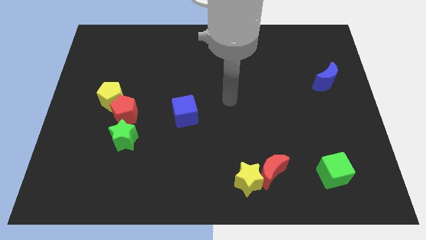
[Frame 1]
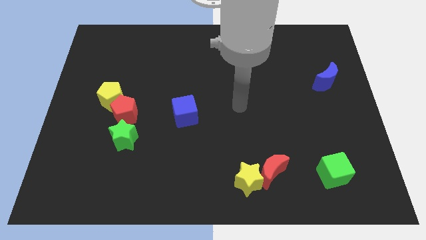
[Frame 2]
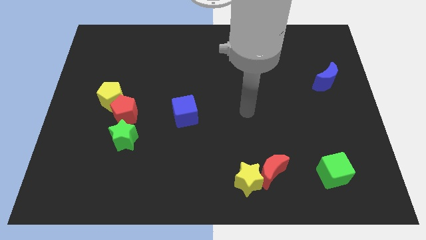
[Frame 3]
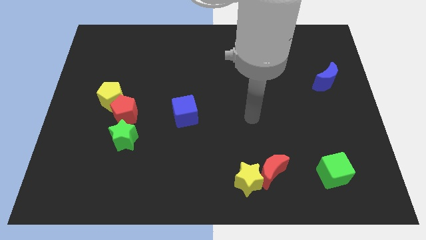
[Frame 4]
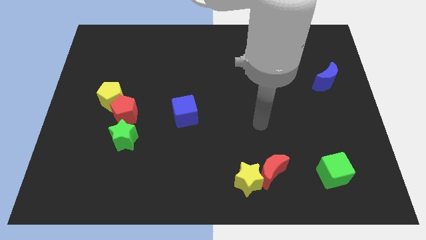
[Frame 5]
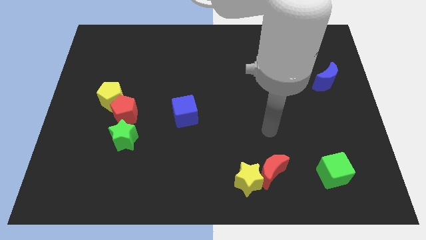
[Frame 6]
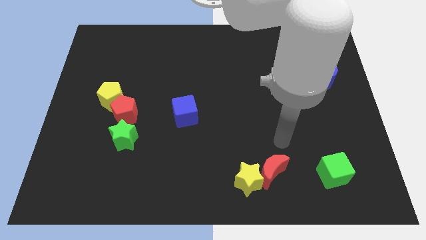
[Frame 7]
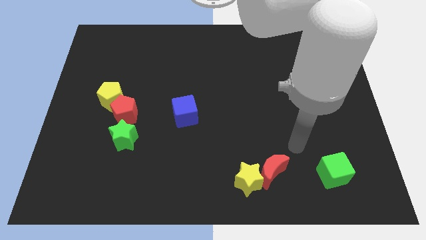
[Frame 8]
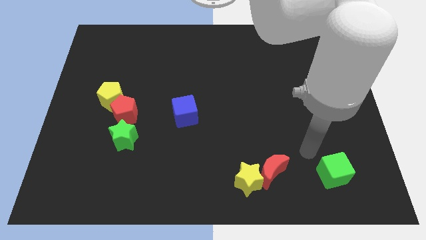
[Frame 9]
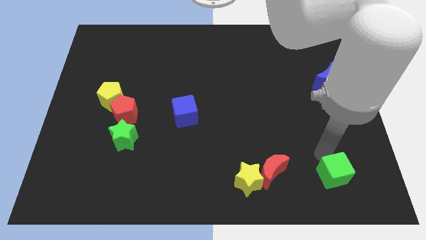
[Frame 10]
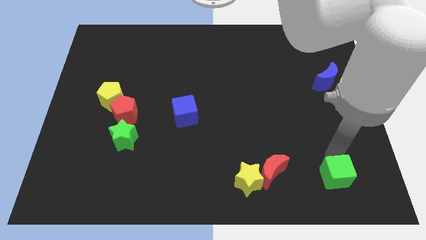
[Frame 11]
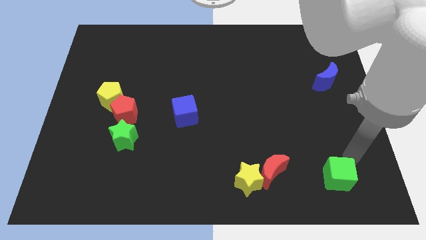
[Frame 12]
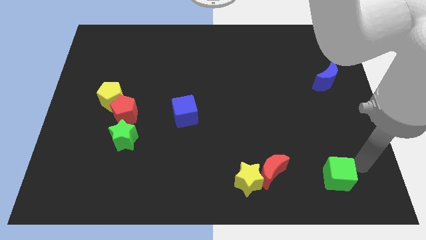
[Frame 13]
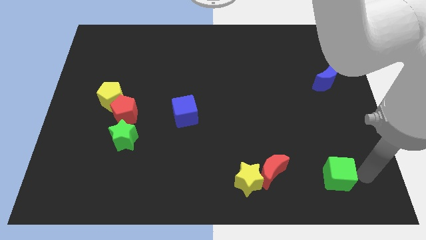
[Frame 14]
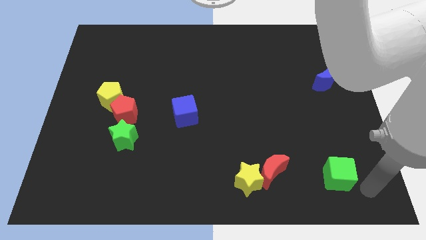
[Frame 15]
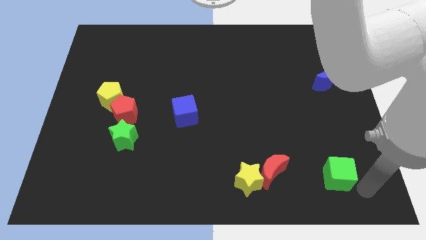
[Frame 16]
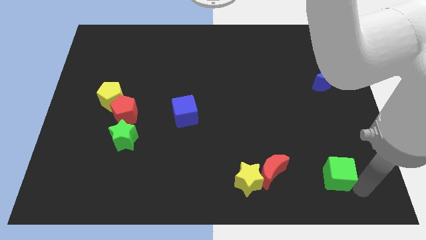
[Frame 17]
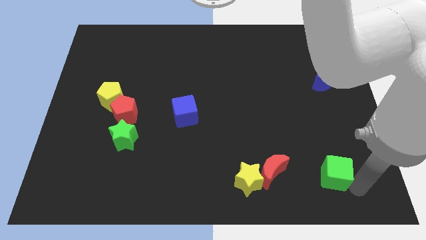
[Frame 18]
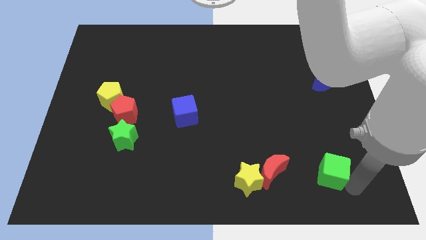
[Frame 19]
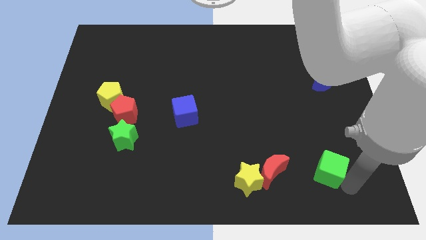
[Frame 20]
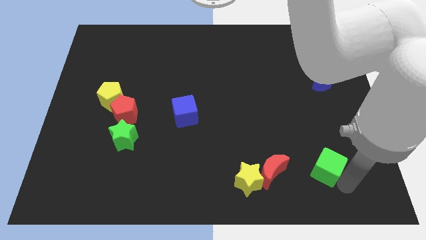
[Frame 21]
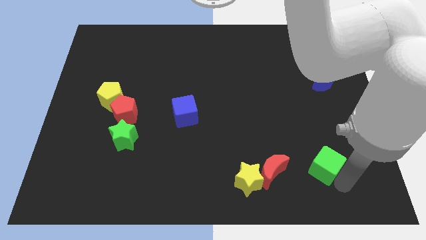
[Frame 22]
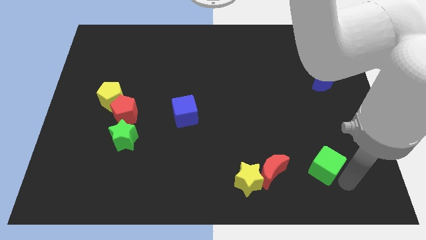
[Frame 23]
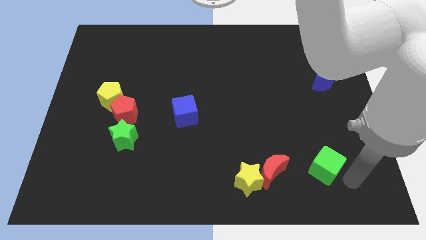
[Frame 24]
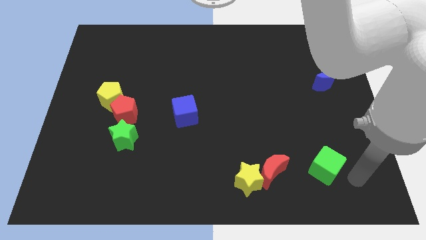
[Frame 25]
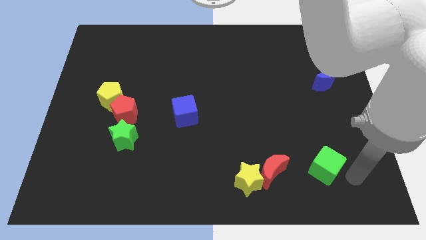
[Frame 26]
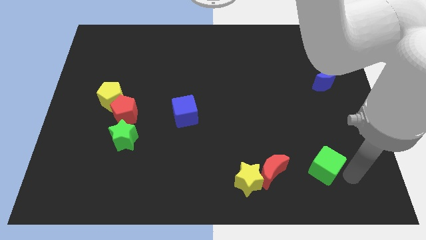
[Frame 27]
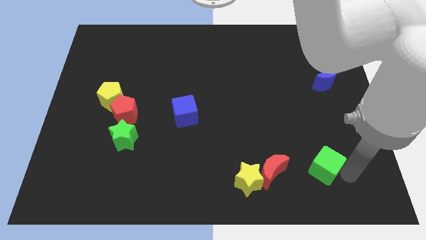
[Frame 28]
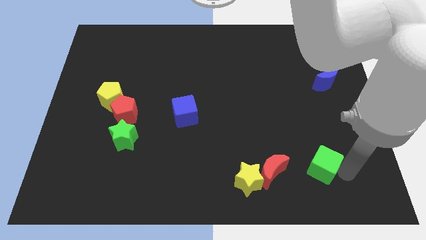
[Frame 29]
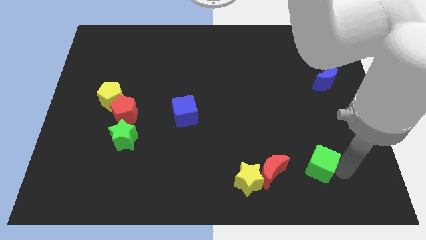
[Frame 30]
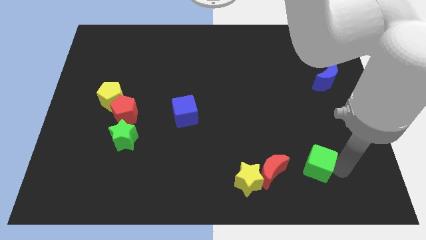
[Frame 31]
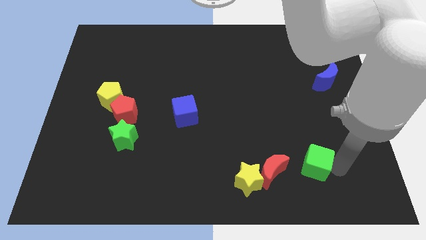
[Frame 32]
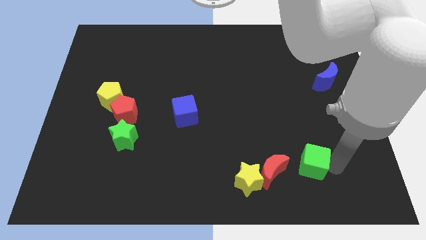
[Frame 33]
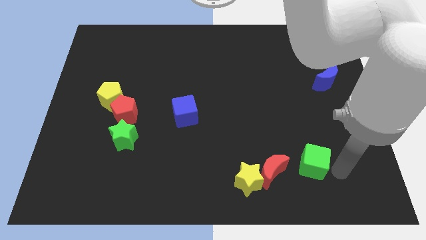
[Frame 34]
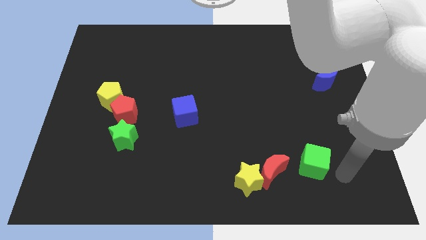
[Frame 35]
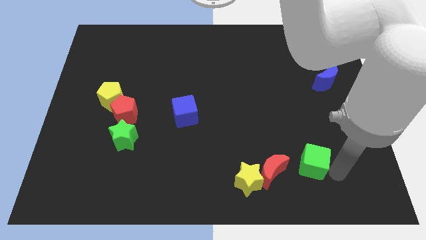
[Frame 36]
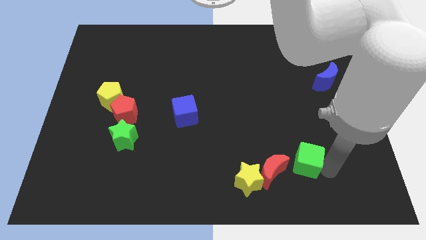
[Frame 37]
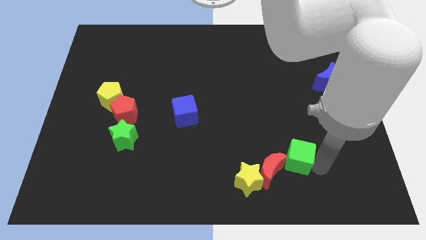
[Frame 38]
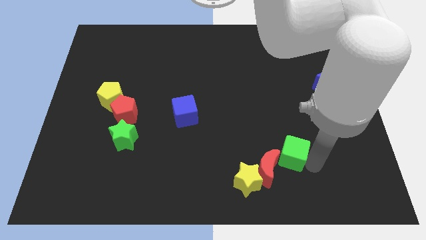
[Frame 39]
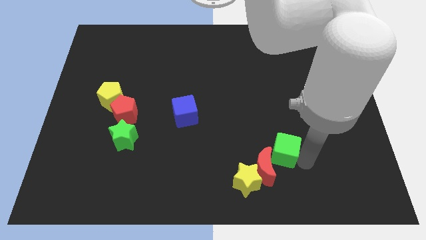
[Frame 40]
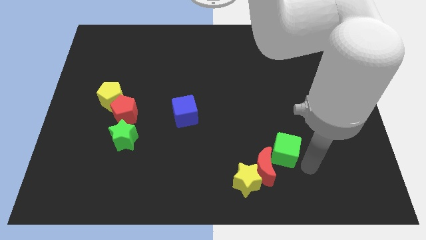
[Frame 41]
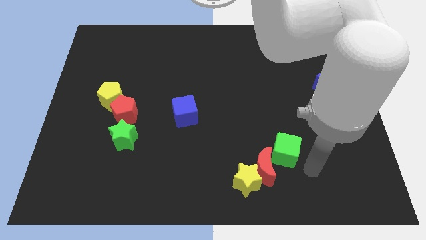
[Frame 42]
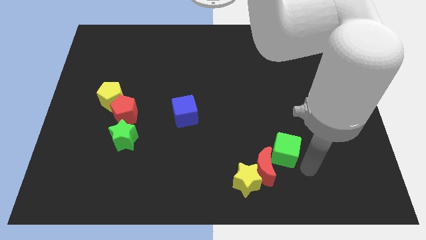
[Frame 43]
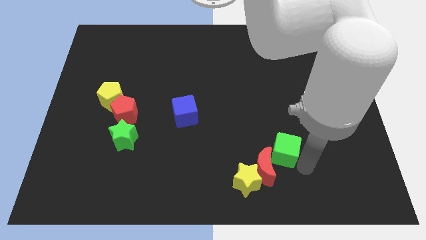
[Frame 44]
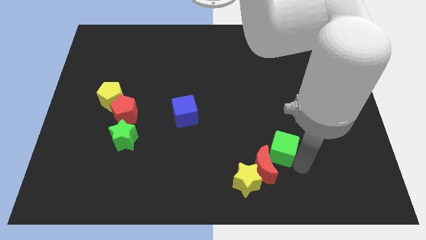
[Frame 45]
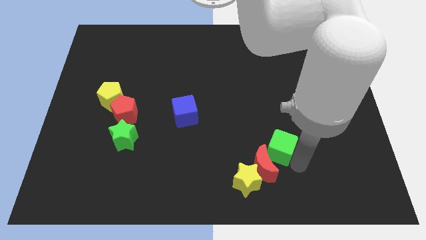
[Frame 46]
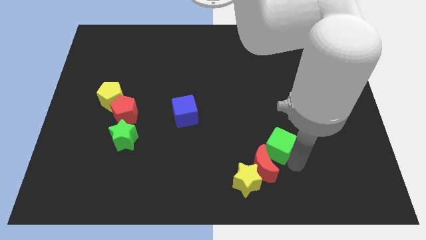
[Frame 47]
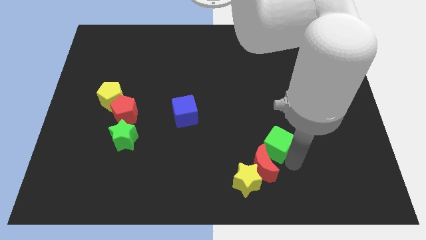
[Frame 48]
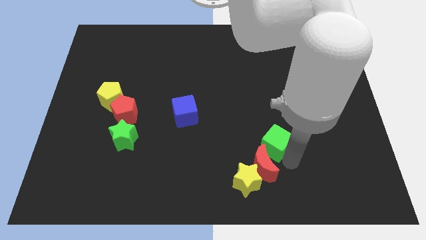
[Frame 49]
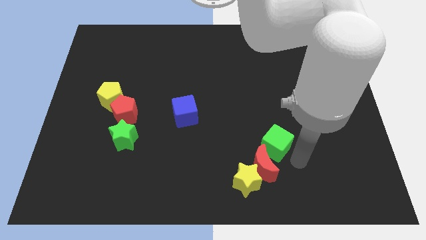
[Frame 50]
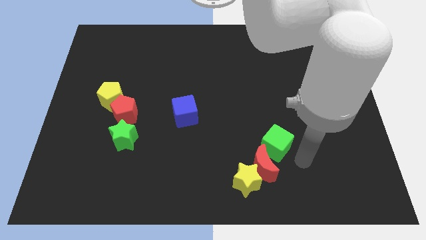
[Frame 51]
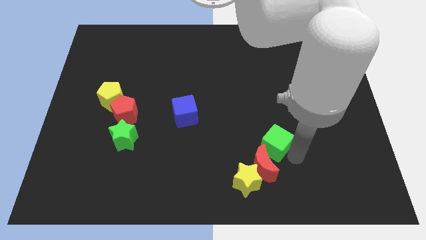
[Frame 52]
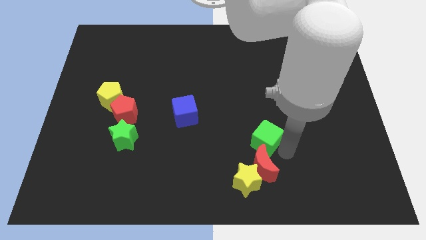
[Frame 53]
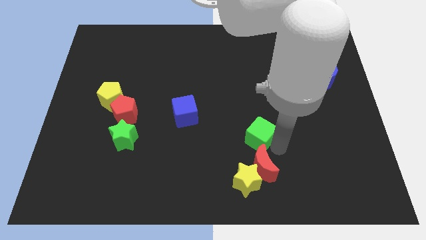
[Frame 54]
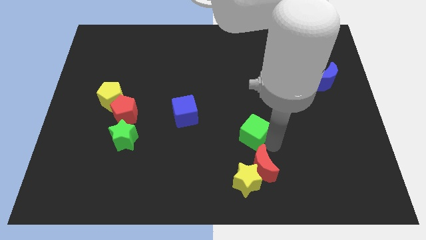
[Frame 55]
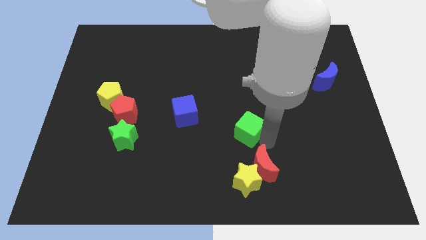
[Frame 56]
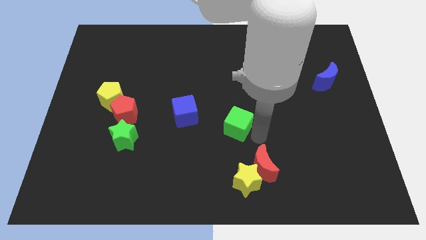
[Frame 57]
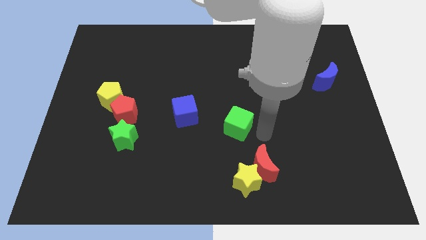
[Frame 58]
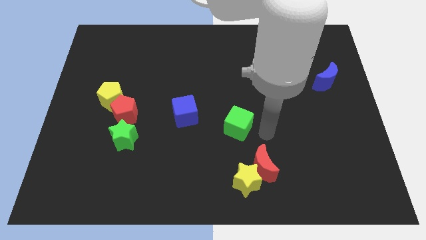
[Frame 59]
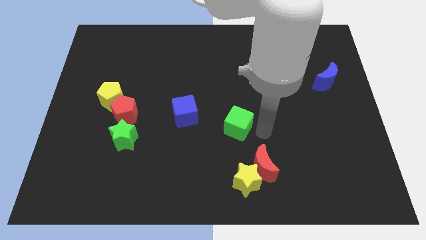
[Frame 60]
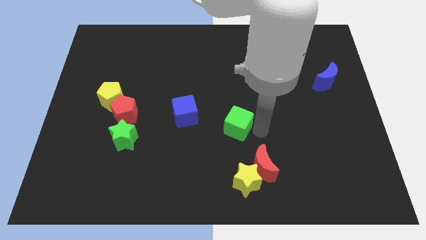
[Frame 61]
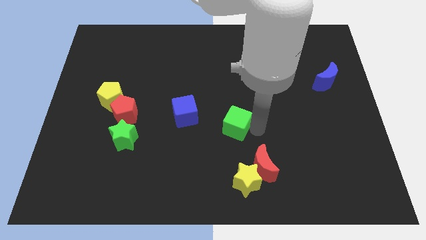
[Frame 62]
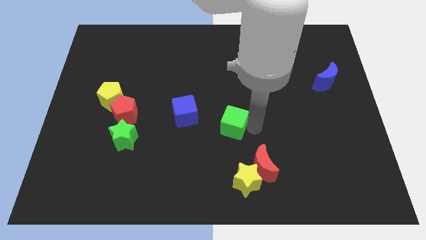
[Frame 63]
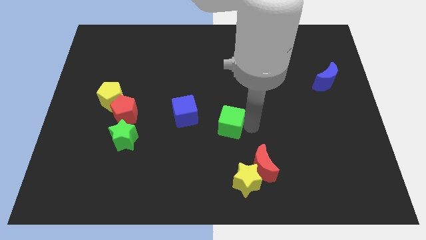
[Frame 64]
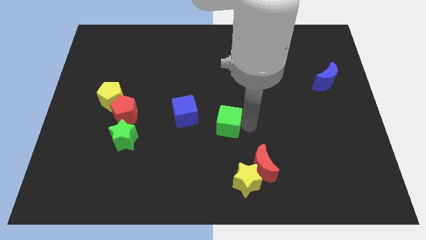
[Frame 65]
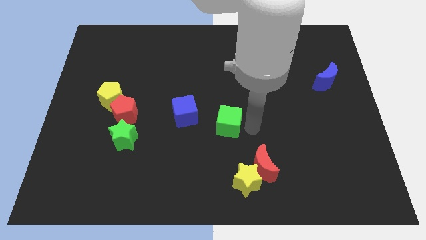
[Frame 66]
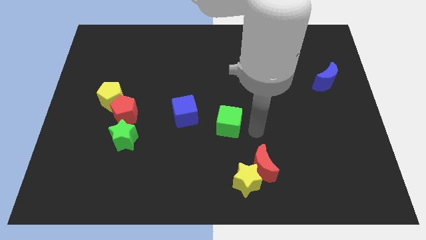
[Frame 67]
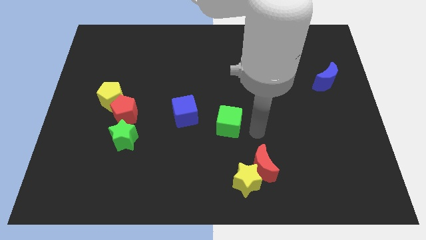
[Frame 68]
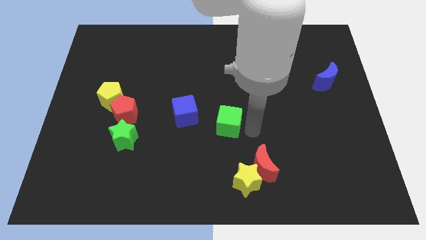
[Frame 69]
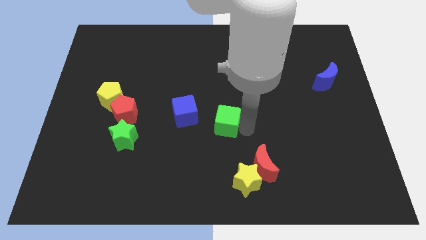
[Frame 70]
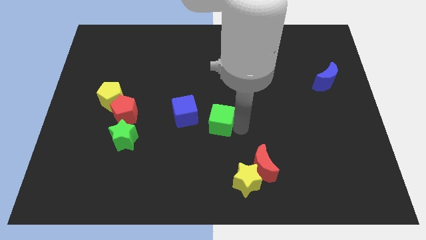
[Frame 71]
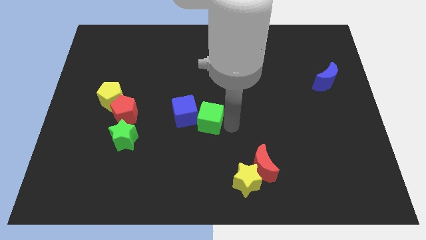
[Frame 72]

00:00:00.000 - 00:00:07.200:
move the green cube next to the blue cube

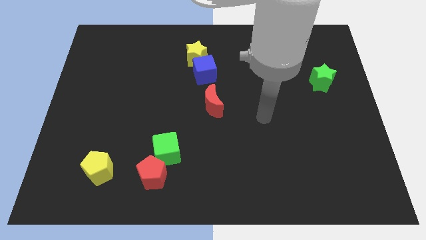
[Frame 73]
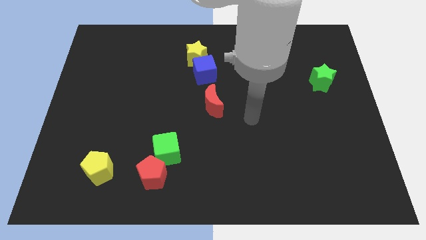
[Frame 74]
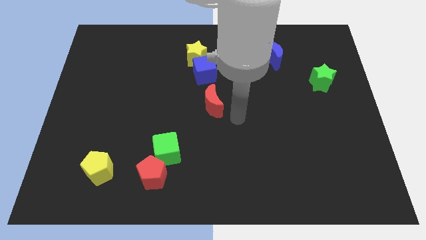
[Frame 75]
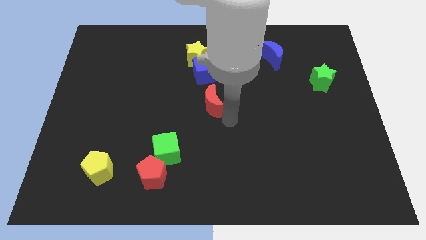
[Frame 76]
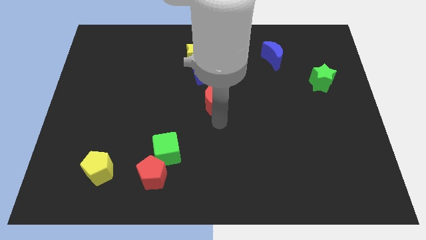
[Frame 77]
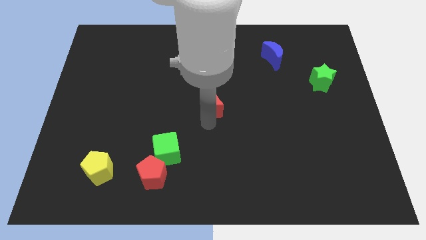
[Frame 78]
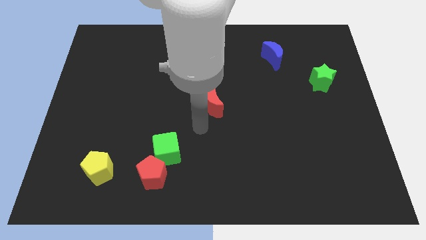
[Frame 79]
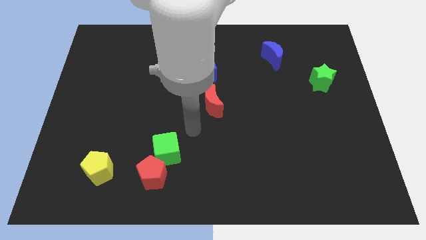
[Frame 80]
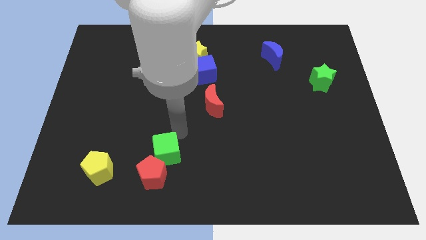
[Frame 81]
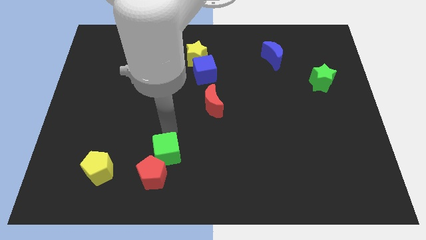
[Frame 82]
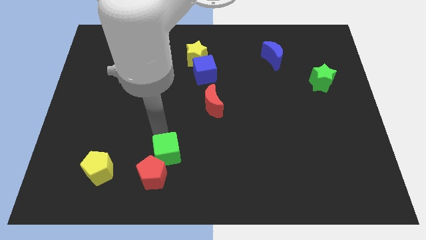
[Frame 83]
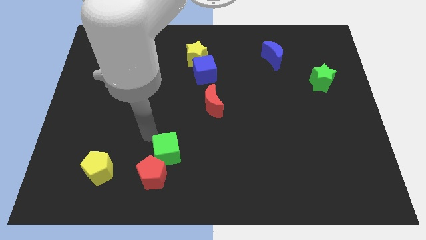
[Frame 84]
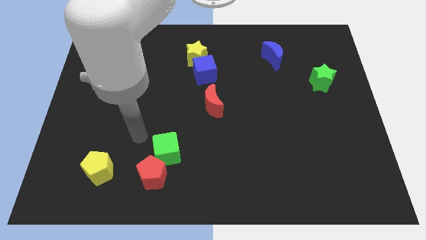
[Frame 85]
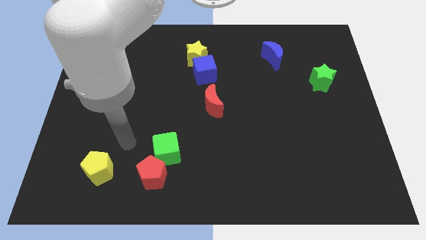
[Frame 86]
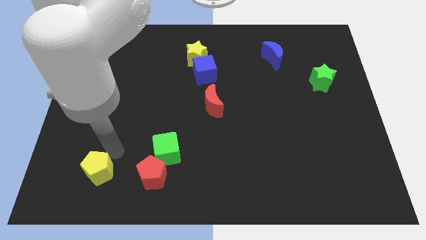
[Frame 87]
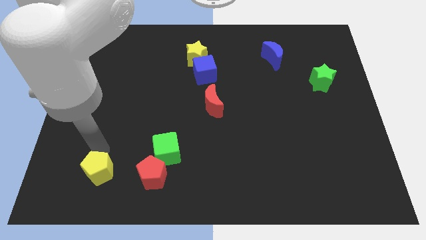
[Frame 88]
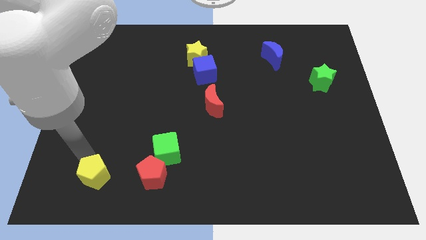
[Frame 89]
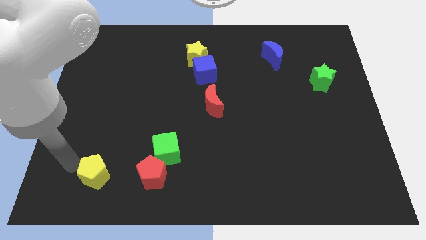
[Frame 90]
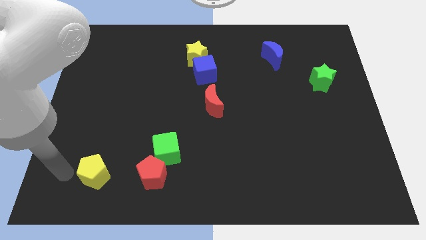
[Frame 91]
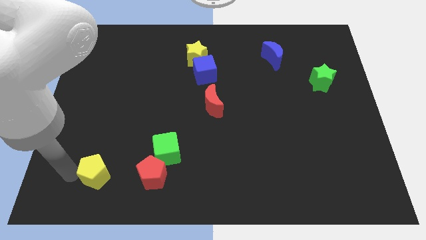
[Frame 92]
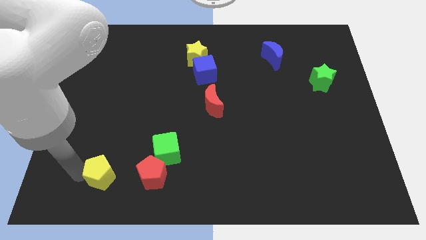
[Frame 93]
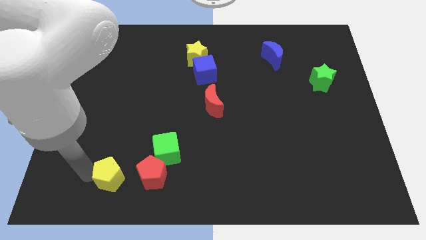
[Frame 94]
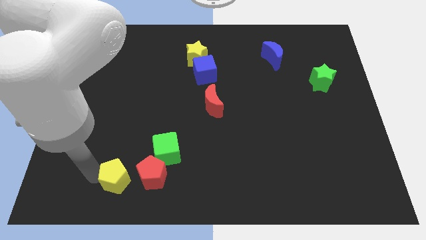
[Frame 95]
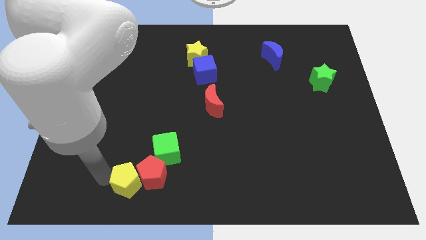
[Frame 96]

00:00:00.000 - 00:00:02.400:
move the yellow pentagon close to the red pentagon
